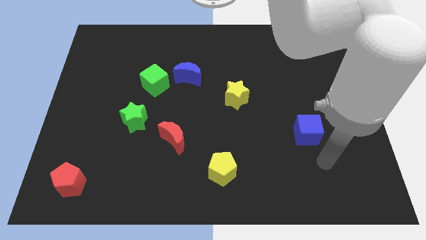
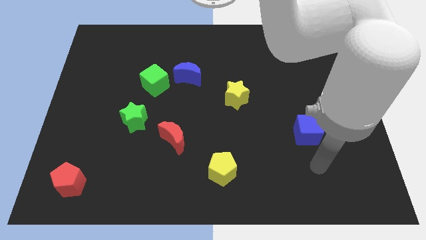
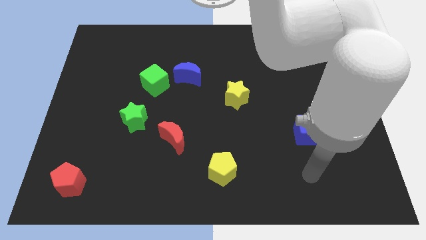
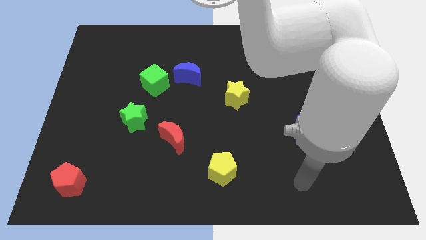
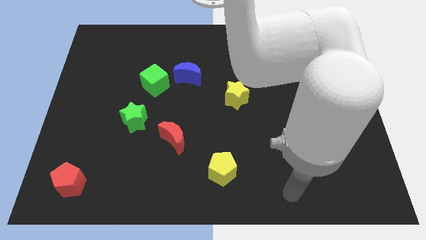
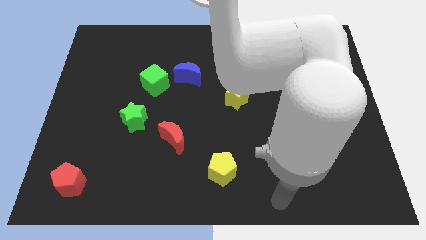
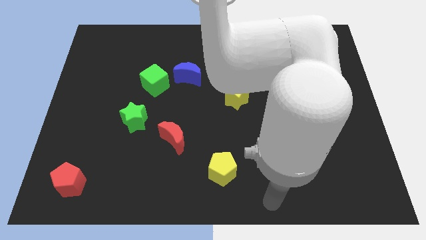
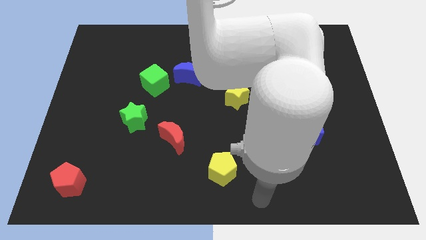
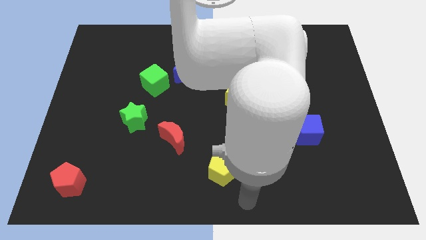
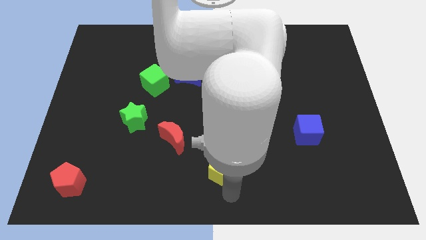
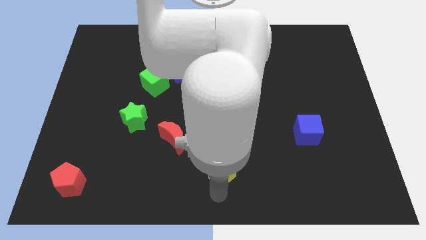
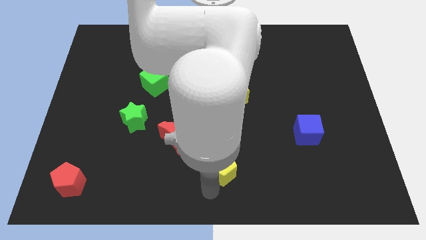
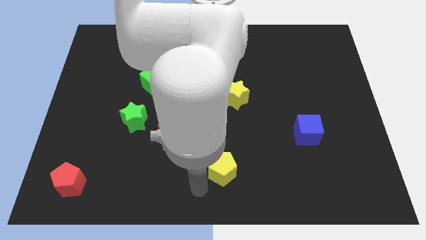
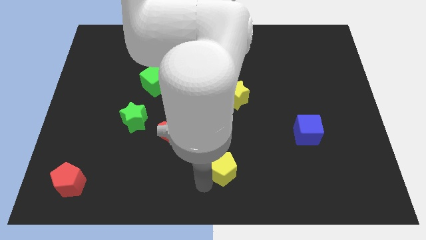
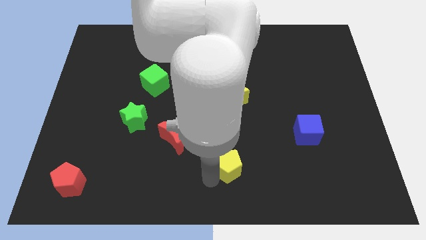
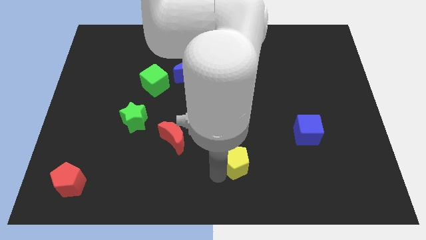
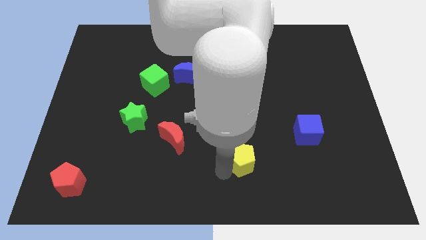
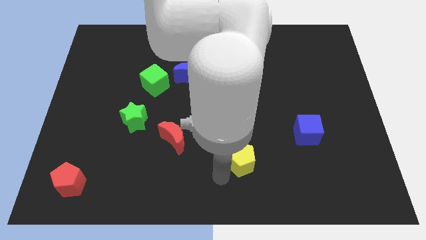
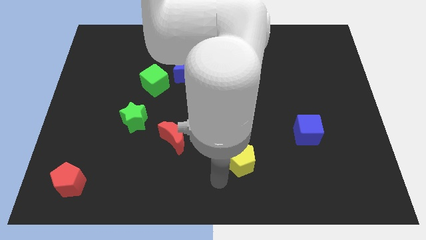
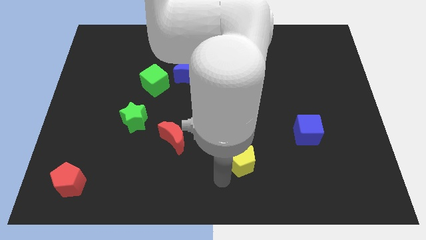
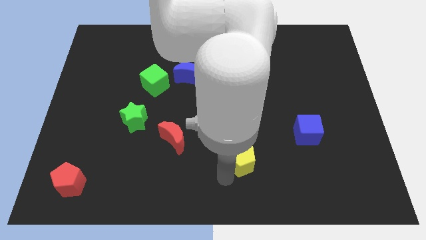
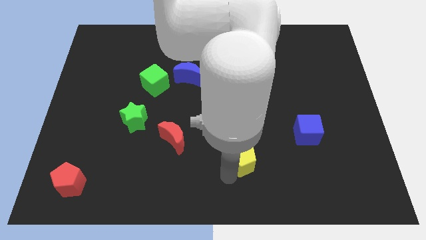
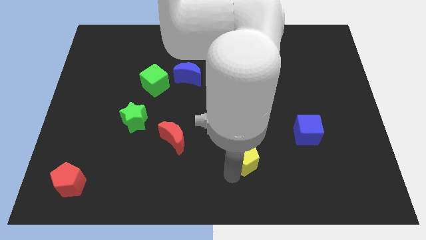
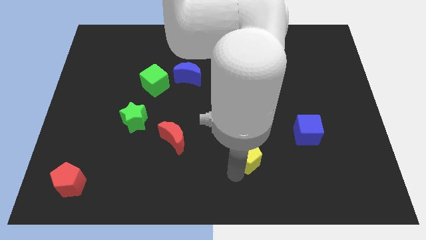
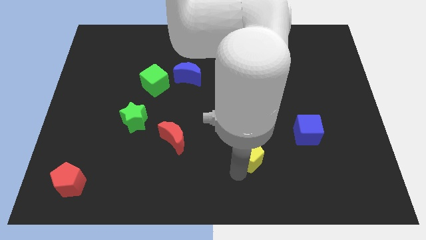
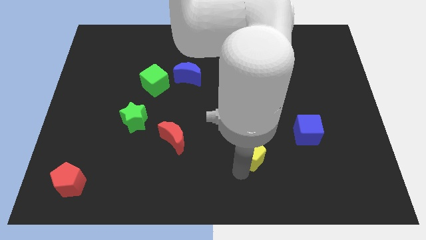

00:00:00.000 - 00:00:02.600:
push the yellow pentagon up and right diagonally somewhat

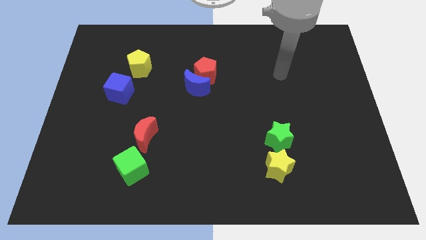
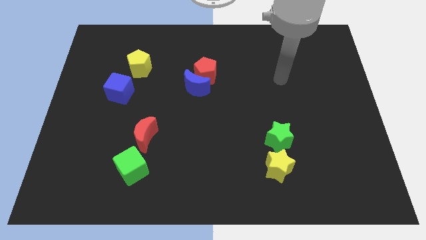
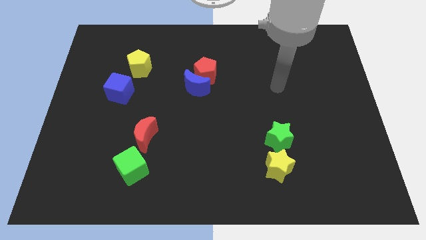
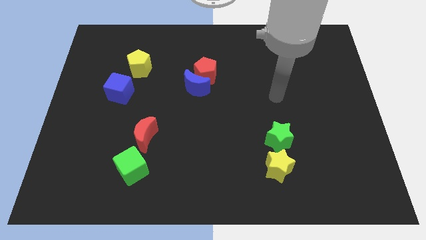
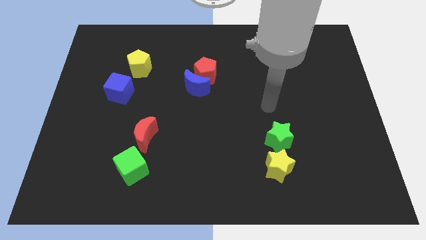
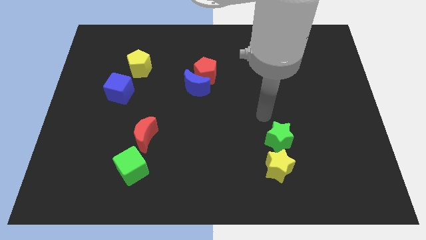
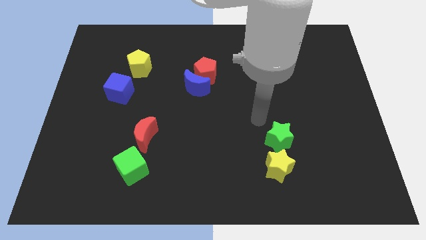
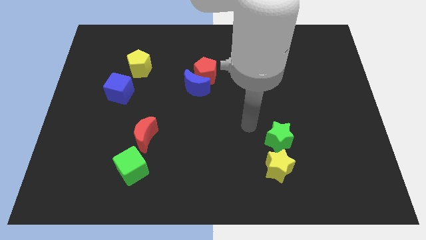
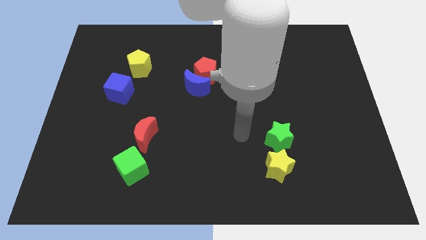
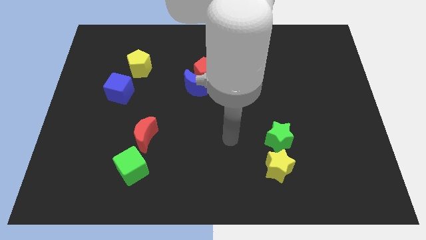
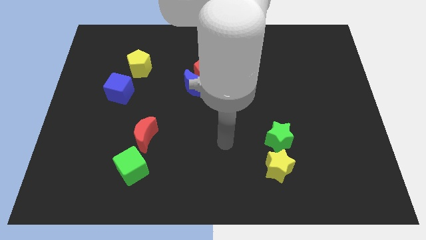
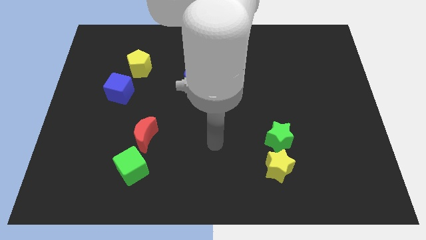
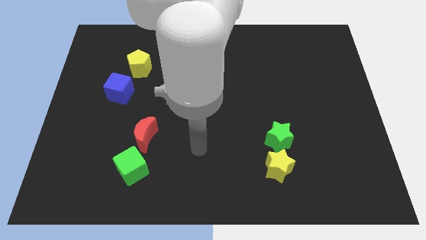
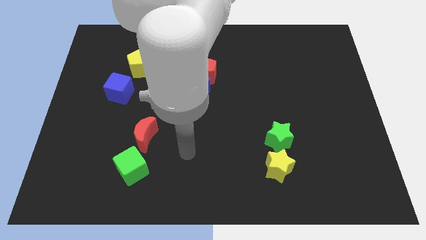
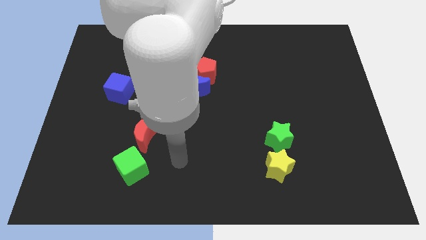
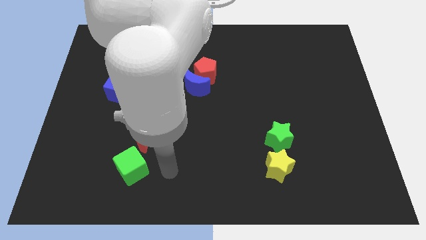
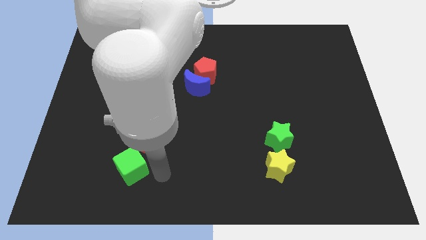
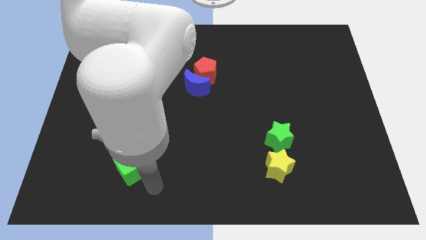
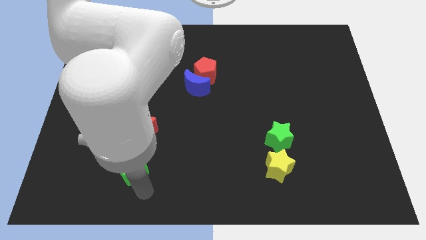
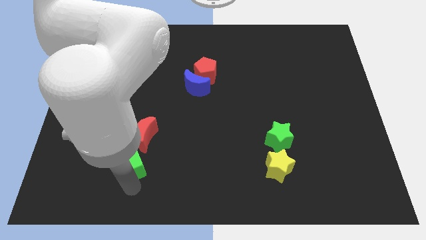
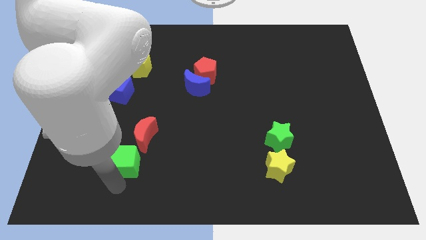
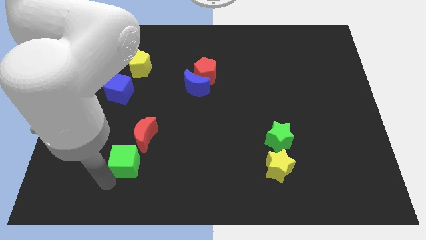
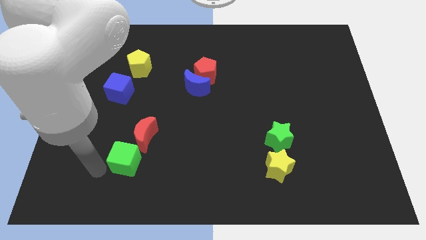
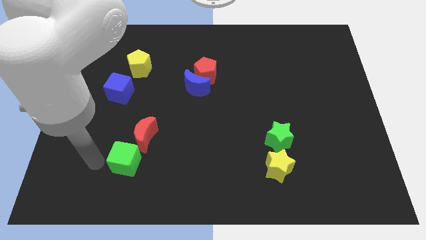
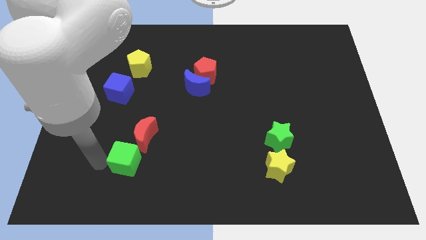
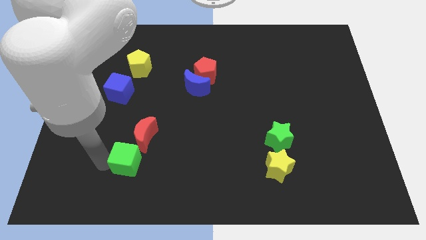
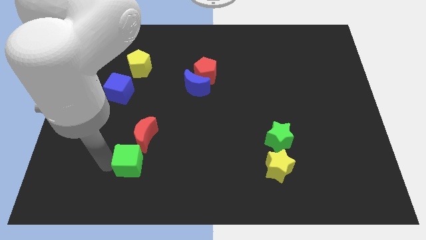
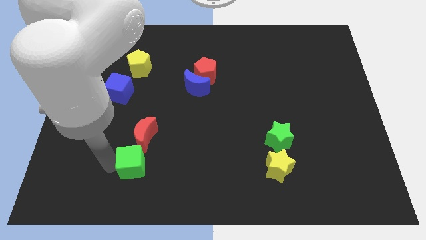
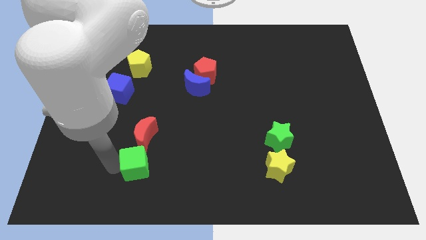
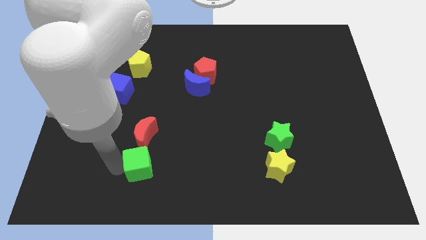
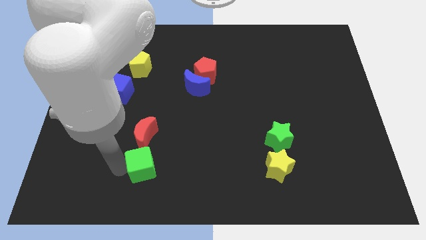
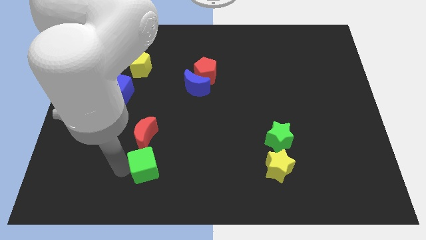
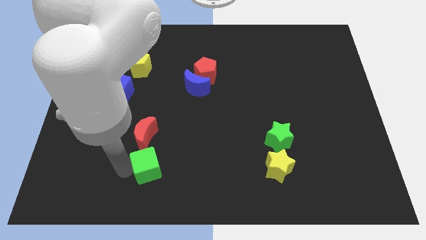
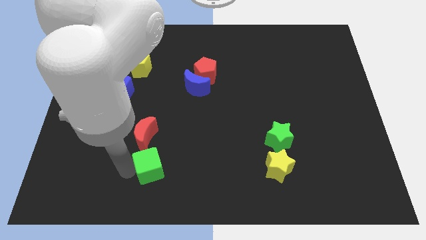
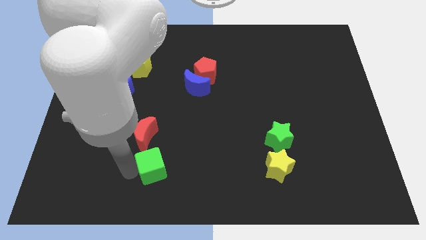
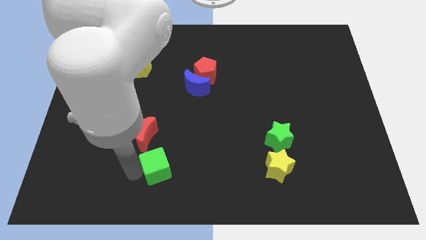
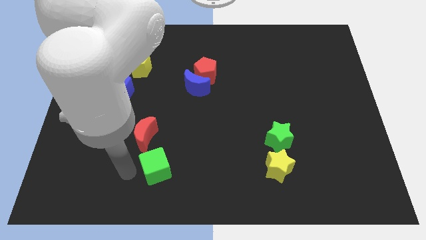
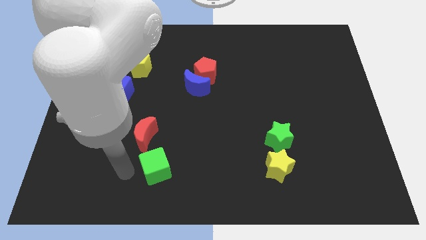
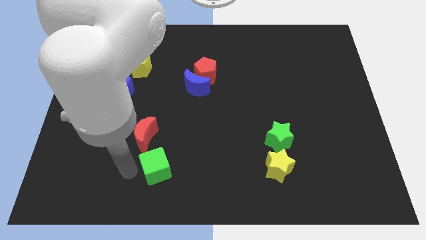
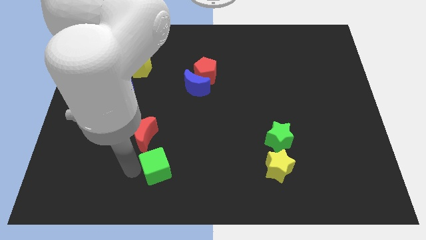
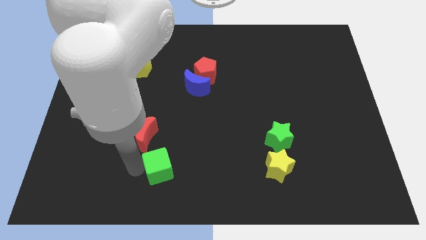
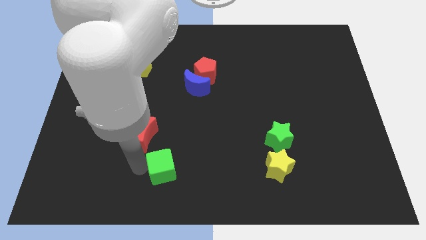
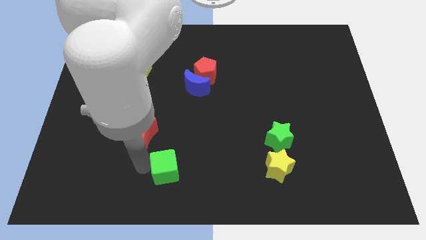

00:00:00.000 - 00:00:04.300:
push the green cube right a little

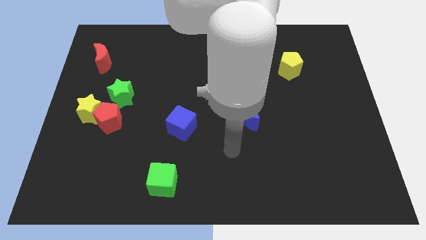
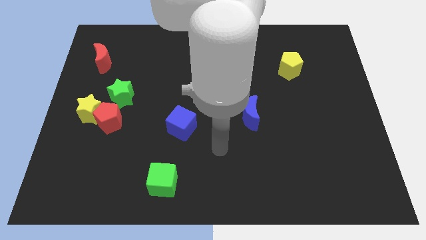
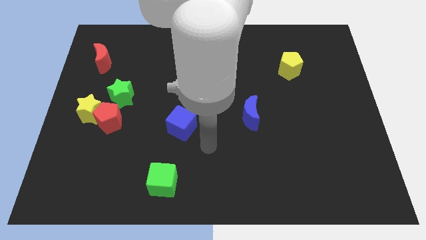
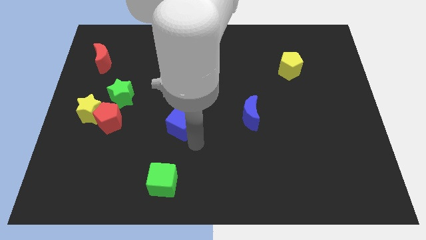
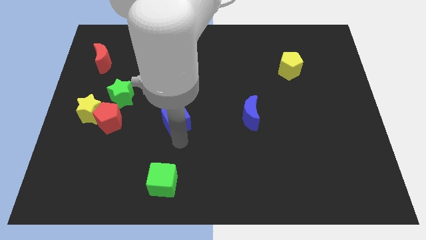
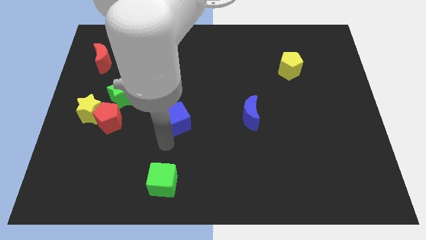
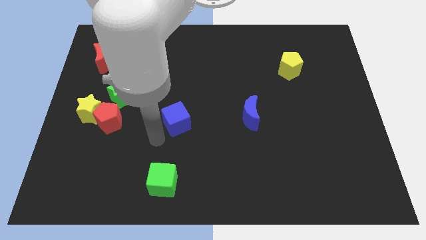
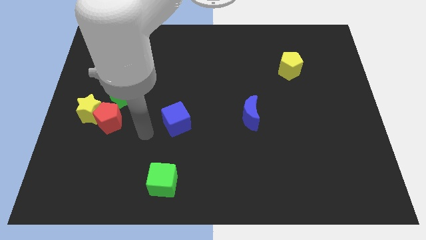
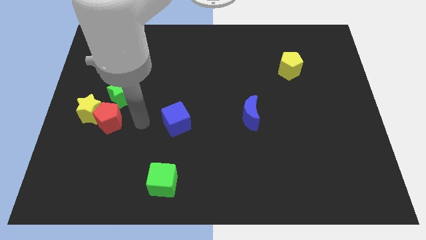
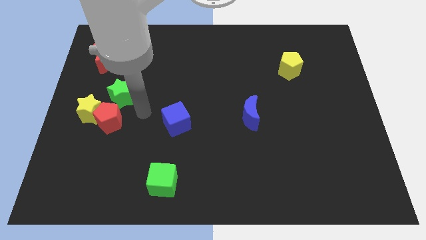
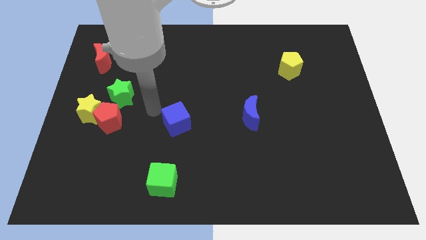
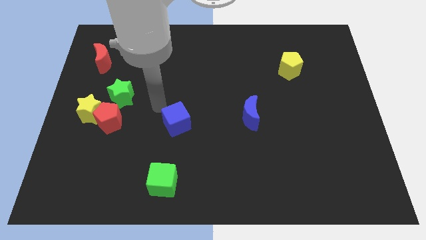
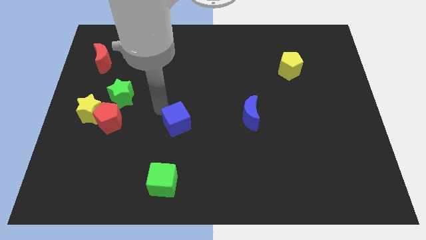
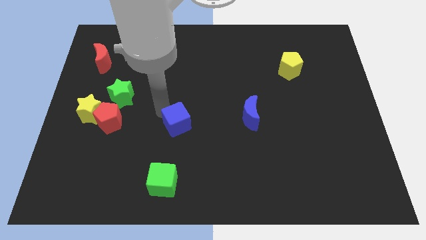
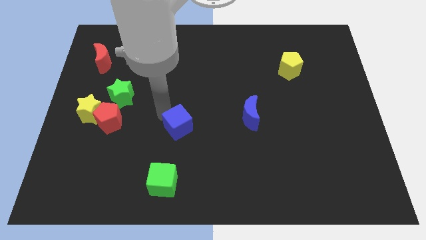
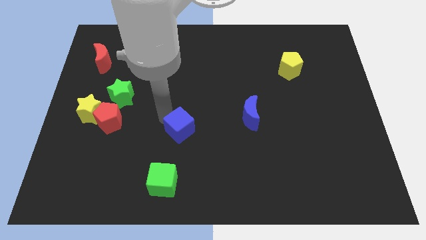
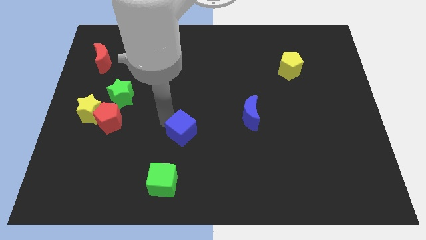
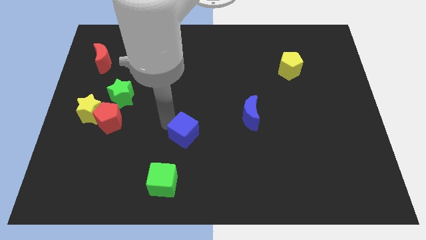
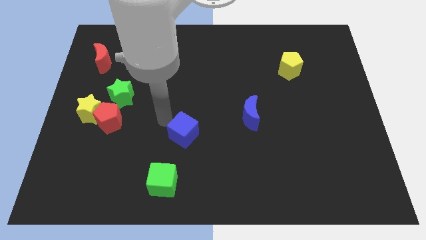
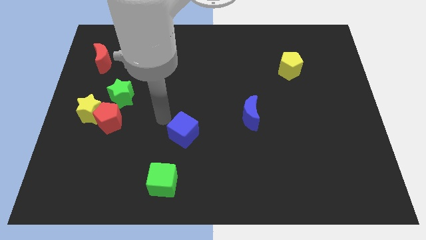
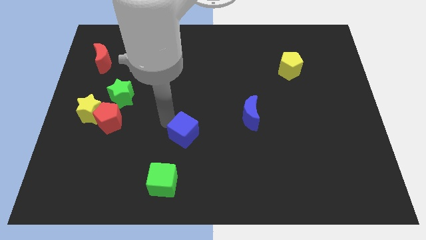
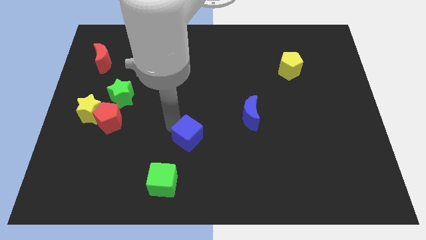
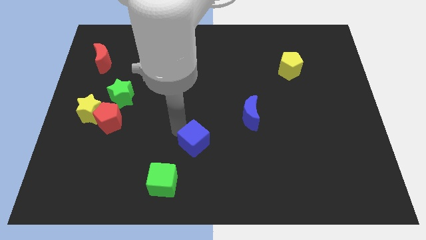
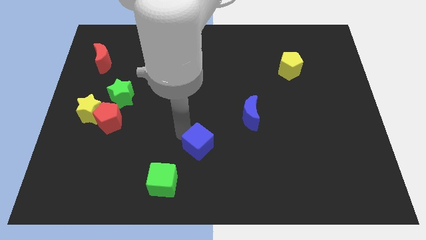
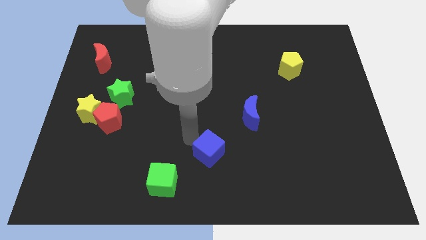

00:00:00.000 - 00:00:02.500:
move the blue cube diagonally downwards and to the right somewhat
